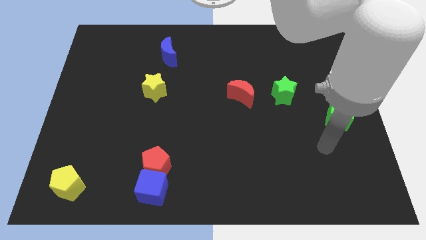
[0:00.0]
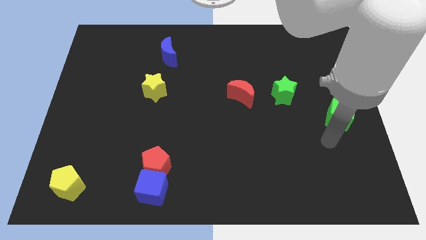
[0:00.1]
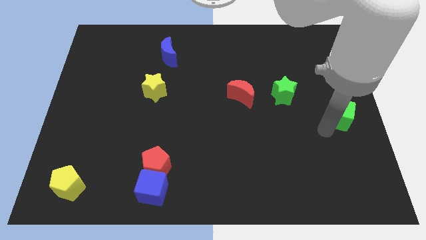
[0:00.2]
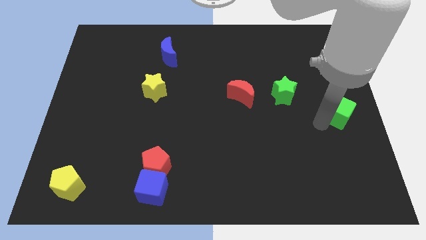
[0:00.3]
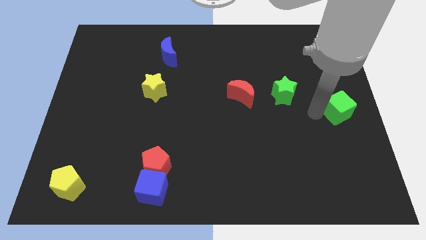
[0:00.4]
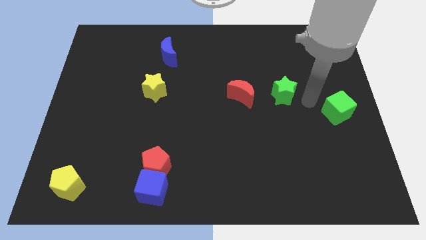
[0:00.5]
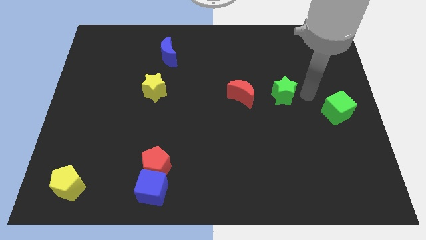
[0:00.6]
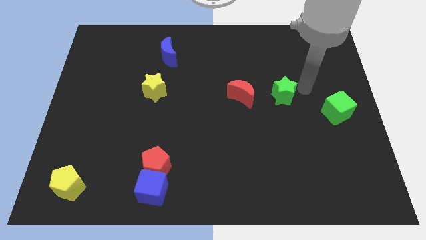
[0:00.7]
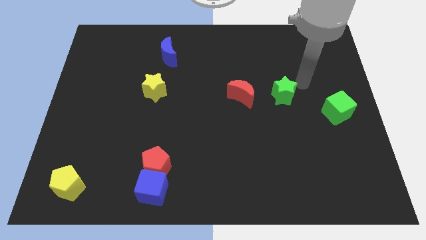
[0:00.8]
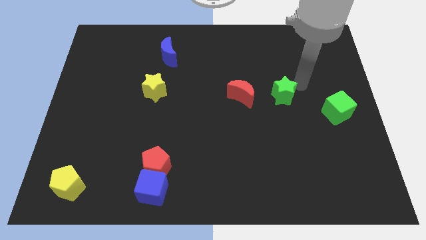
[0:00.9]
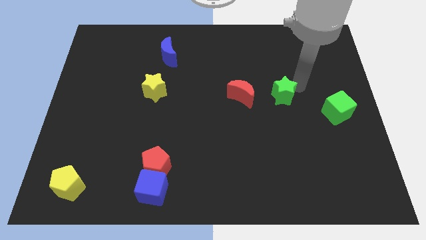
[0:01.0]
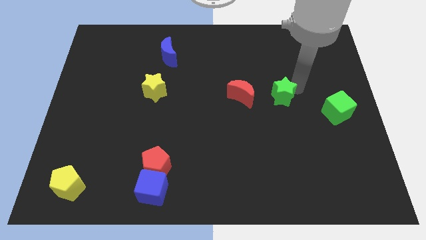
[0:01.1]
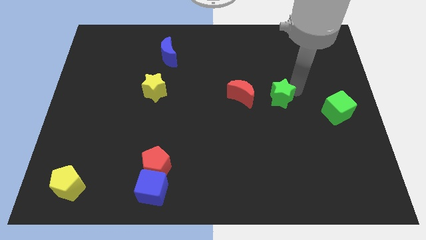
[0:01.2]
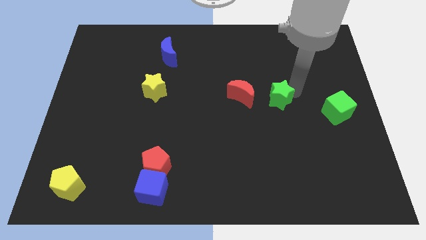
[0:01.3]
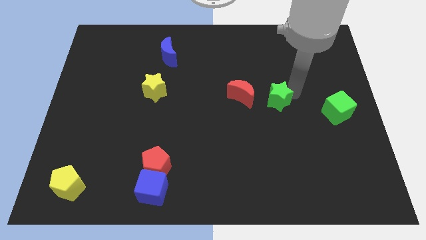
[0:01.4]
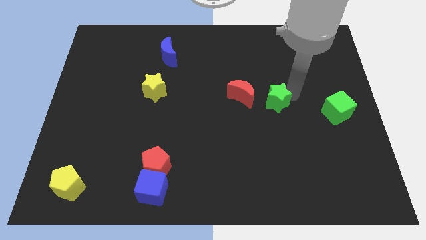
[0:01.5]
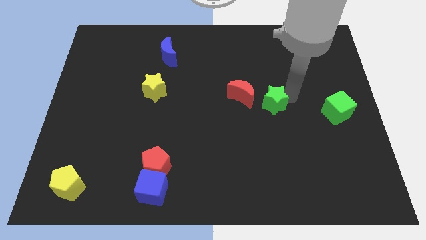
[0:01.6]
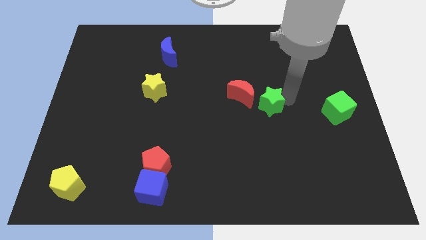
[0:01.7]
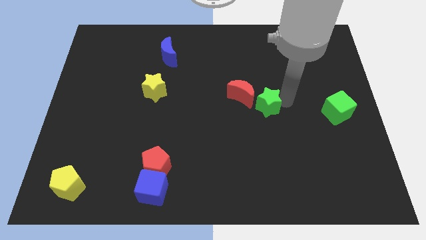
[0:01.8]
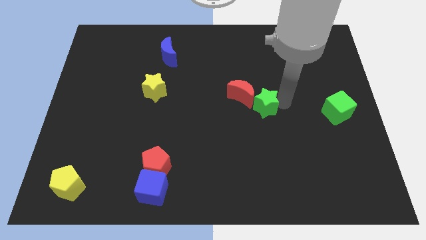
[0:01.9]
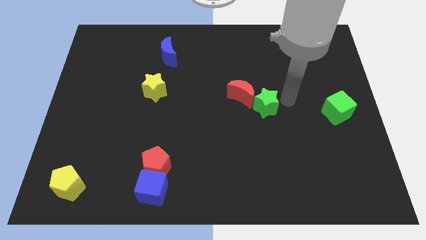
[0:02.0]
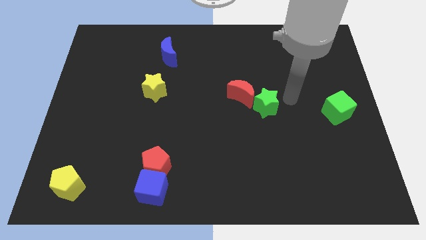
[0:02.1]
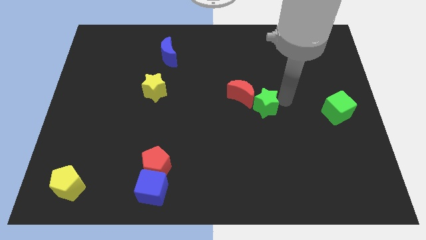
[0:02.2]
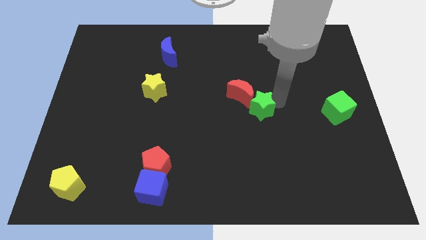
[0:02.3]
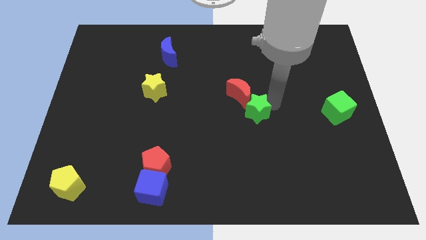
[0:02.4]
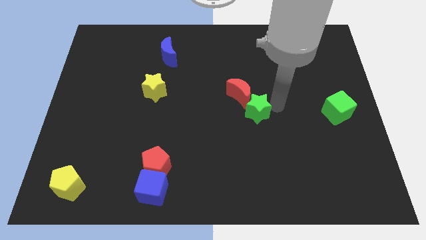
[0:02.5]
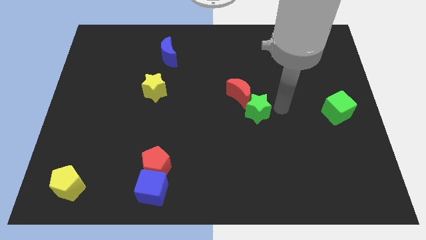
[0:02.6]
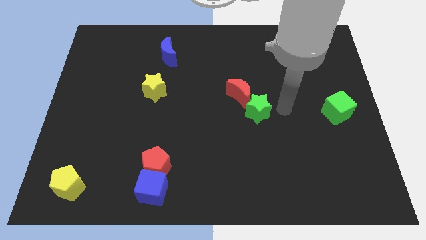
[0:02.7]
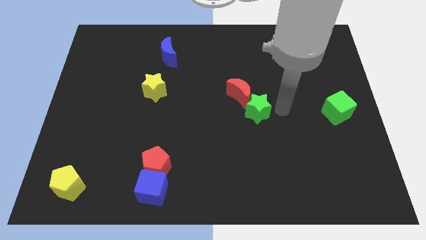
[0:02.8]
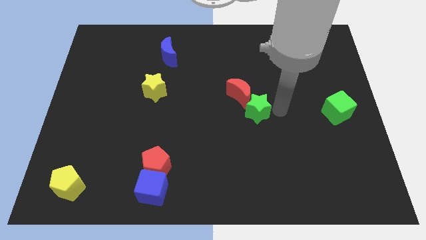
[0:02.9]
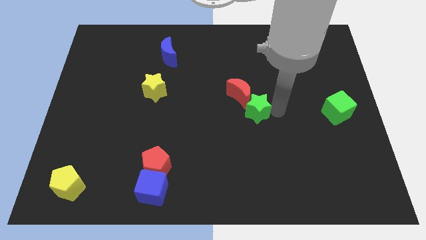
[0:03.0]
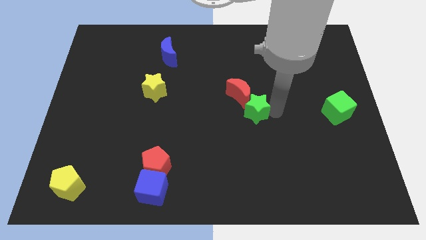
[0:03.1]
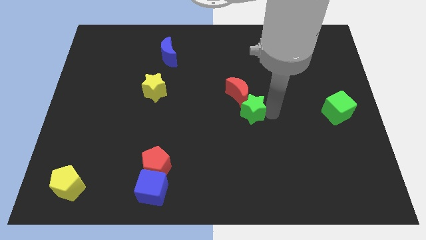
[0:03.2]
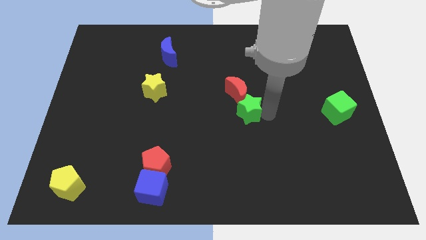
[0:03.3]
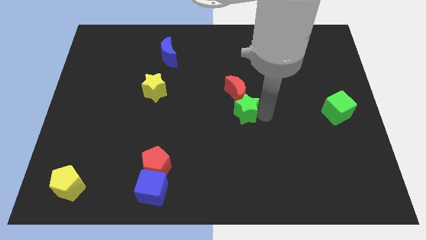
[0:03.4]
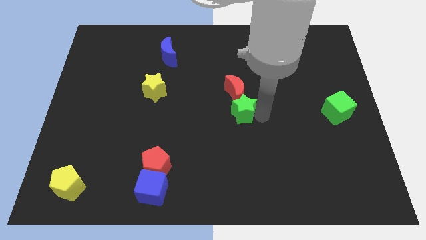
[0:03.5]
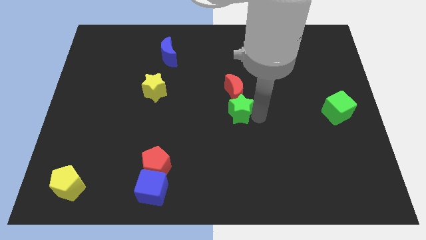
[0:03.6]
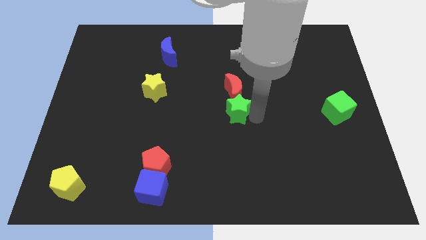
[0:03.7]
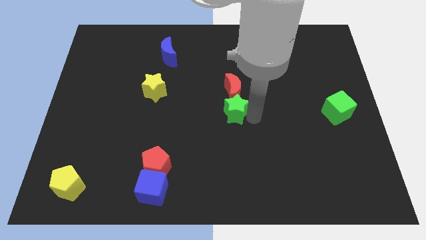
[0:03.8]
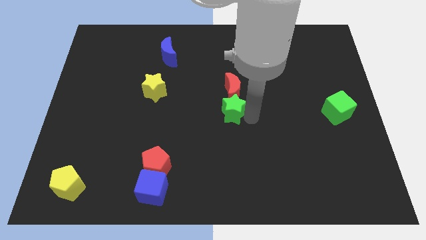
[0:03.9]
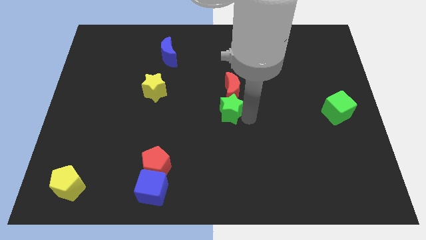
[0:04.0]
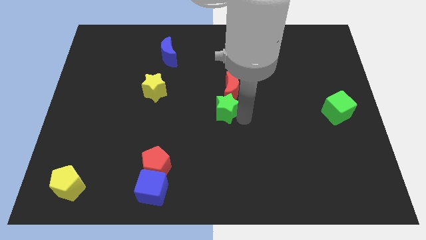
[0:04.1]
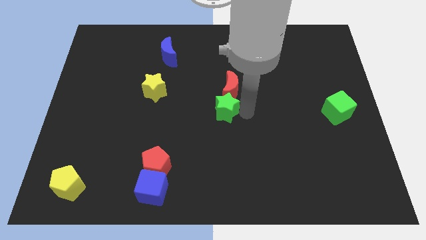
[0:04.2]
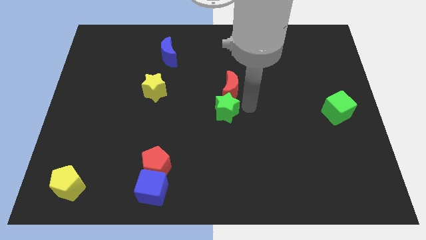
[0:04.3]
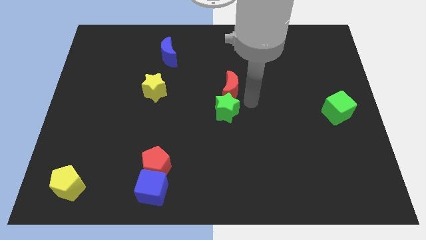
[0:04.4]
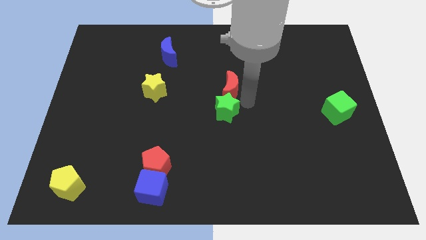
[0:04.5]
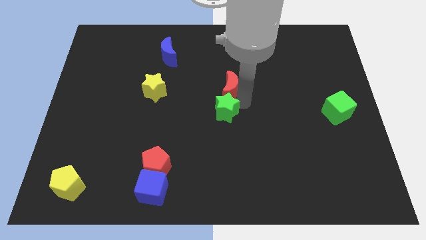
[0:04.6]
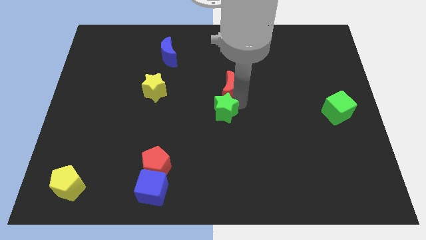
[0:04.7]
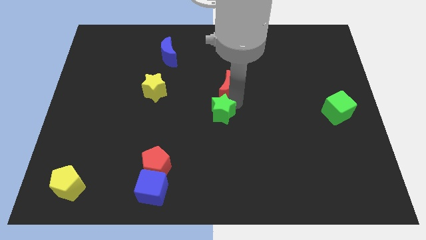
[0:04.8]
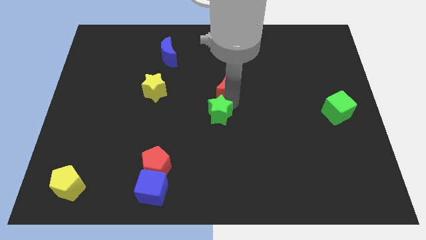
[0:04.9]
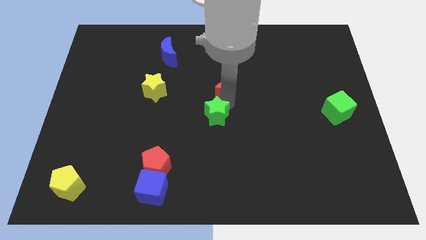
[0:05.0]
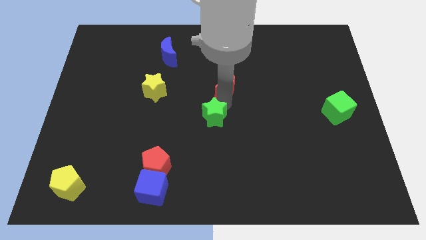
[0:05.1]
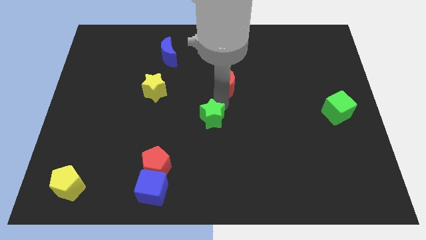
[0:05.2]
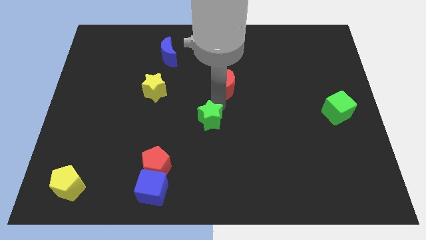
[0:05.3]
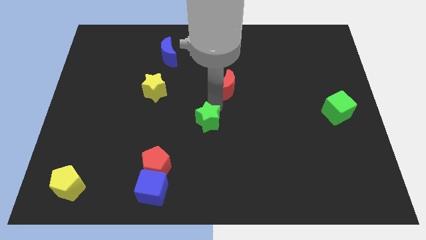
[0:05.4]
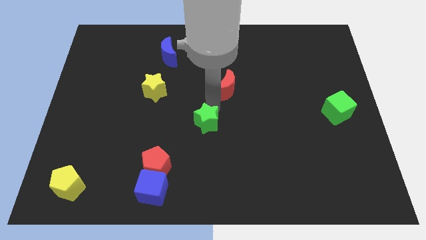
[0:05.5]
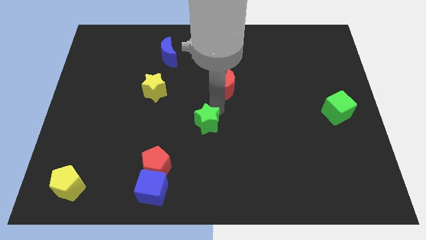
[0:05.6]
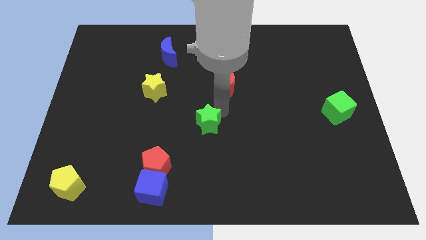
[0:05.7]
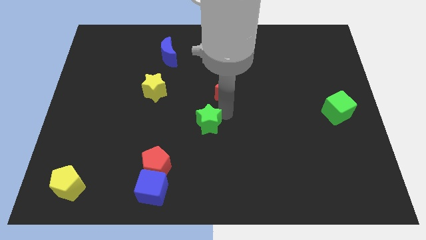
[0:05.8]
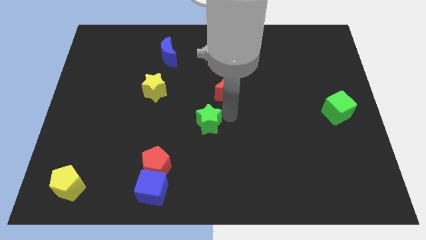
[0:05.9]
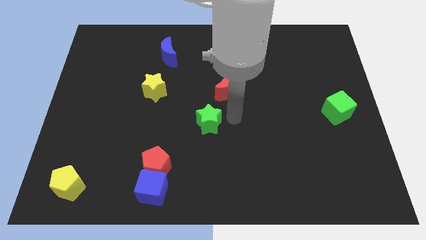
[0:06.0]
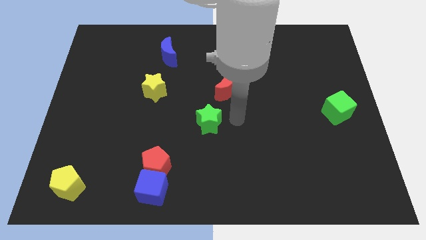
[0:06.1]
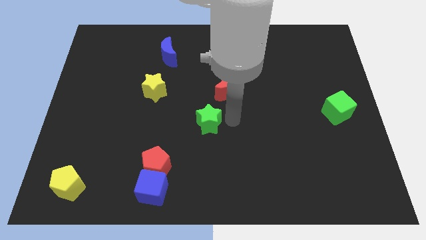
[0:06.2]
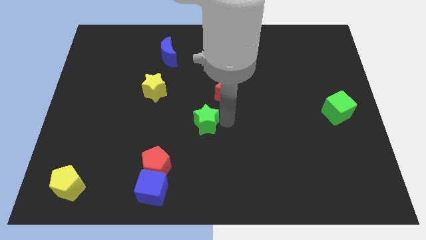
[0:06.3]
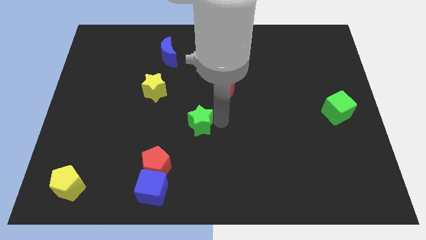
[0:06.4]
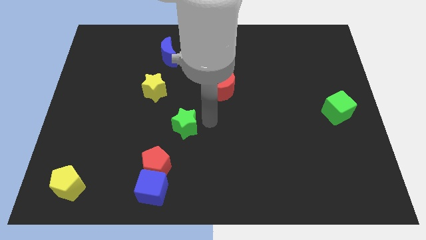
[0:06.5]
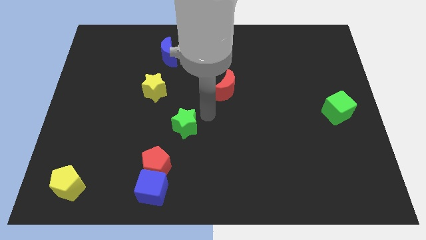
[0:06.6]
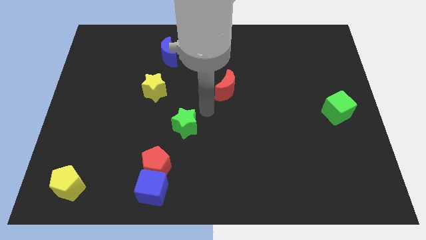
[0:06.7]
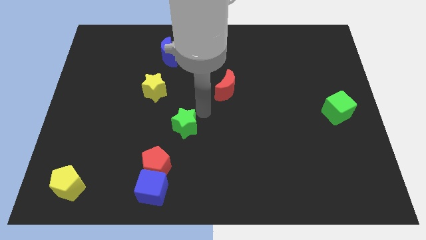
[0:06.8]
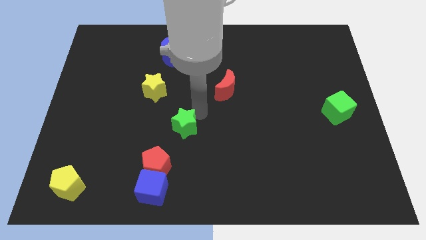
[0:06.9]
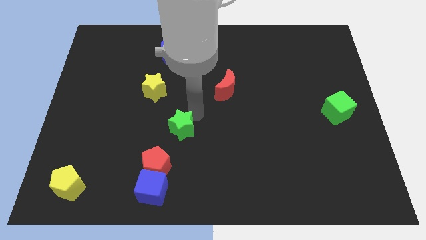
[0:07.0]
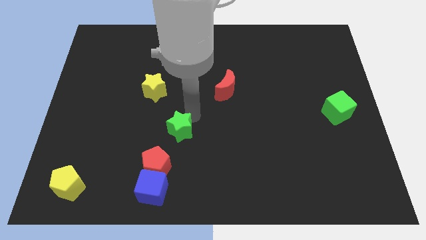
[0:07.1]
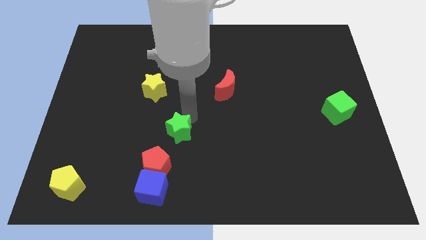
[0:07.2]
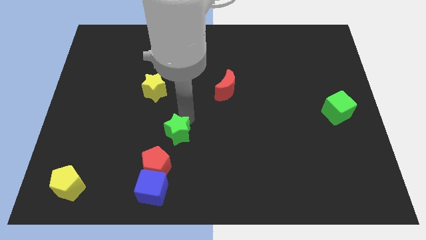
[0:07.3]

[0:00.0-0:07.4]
move the green star to the top of the blue cube

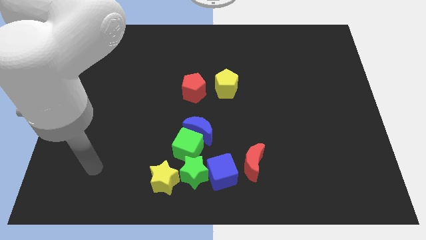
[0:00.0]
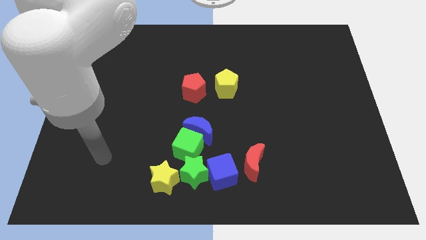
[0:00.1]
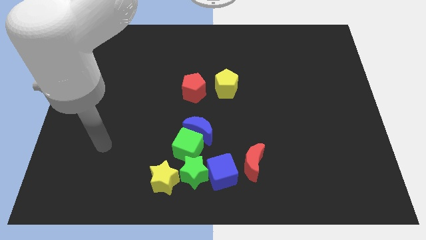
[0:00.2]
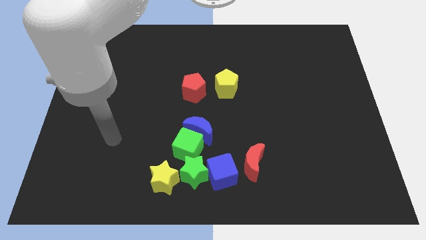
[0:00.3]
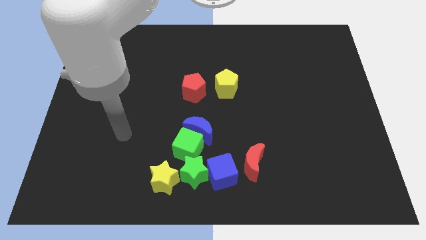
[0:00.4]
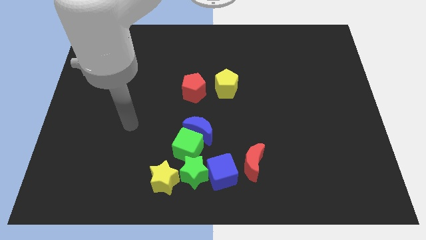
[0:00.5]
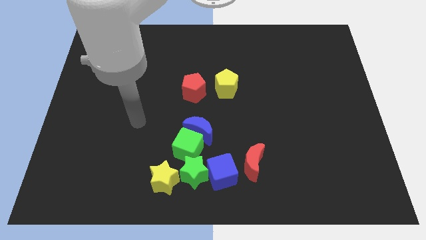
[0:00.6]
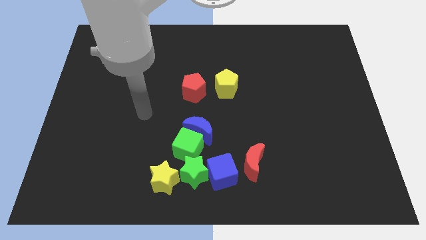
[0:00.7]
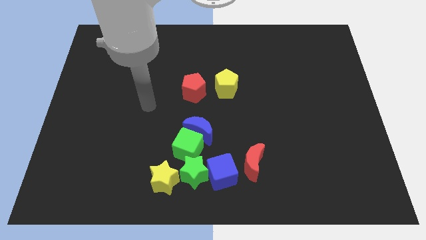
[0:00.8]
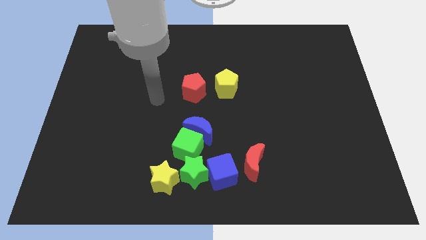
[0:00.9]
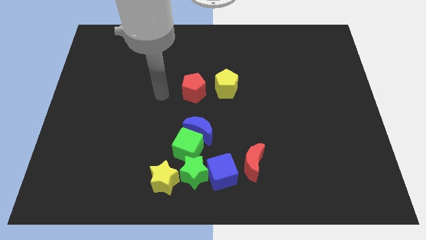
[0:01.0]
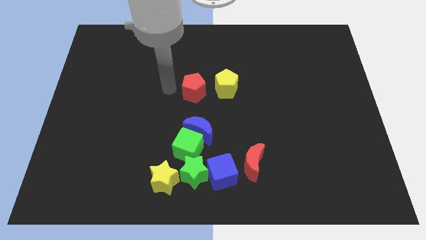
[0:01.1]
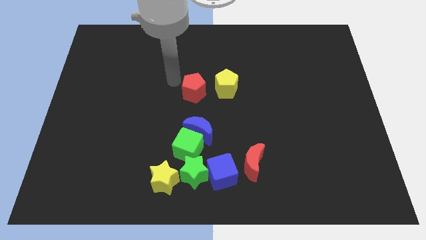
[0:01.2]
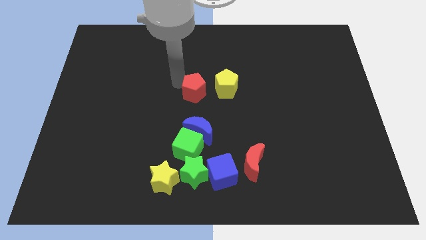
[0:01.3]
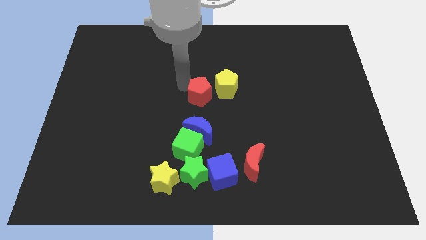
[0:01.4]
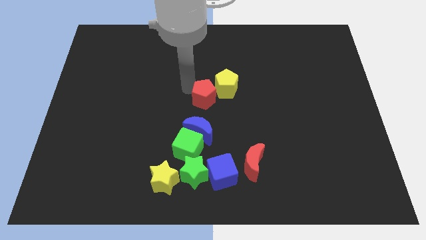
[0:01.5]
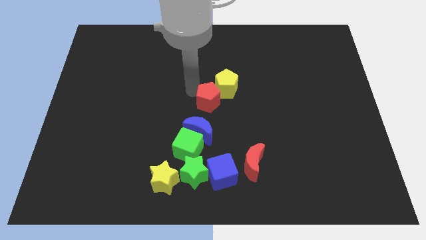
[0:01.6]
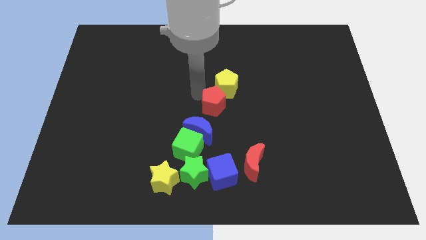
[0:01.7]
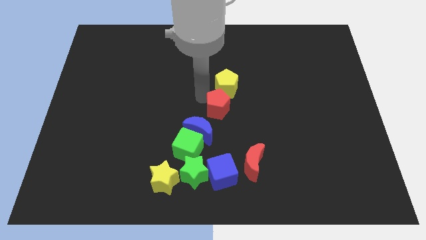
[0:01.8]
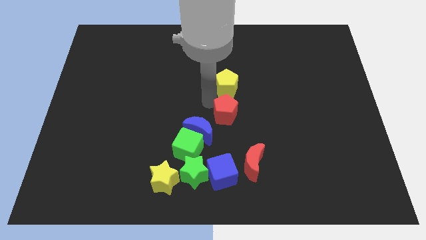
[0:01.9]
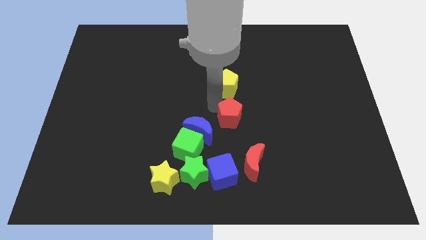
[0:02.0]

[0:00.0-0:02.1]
move the red pentagon above the red moon
